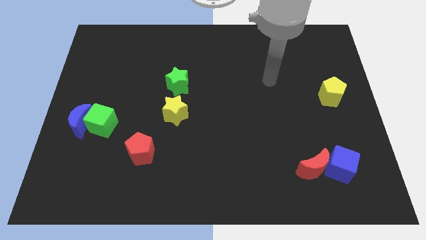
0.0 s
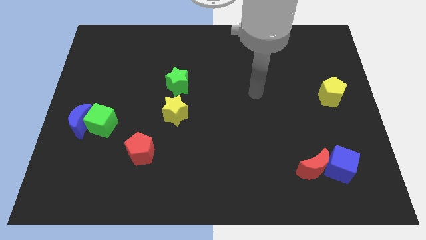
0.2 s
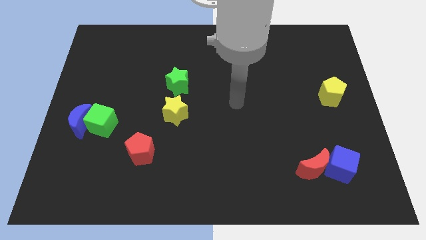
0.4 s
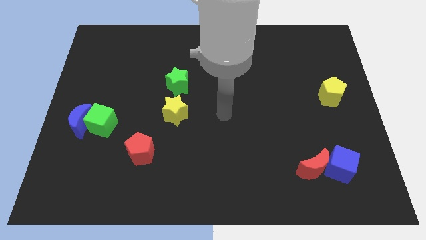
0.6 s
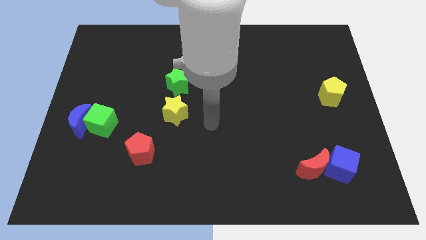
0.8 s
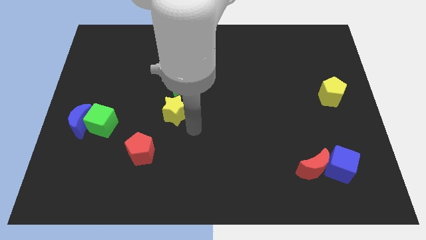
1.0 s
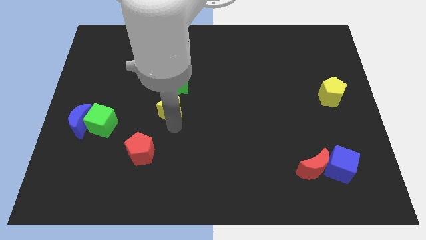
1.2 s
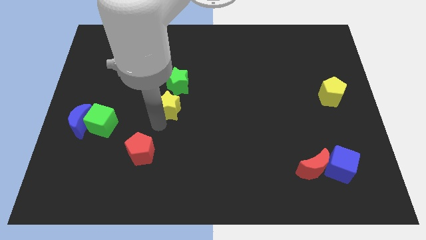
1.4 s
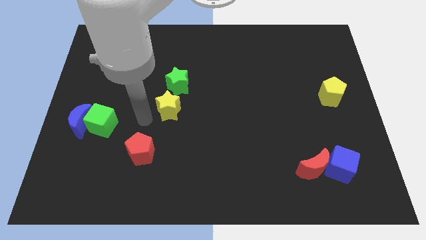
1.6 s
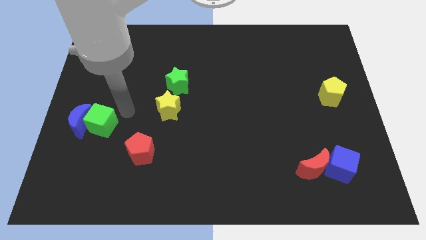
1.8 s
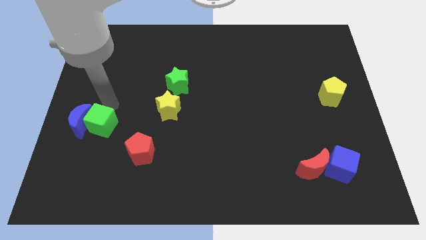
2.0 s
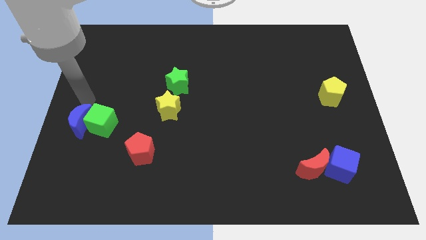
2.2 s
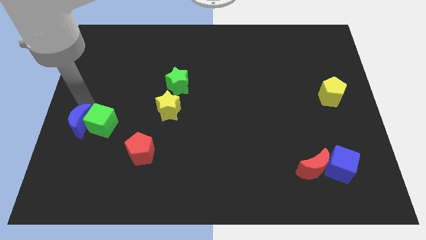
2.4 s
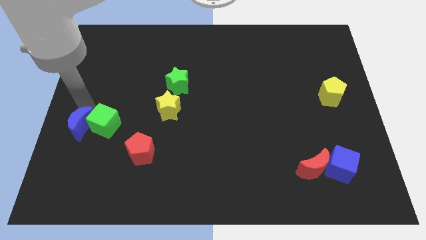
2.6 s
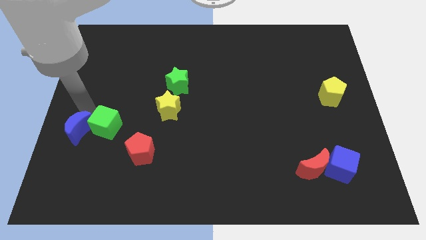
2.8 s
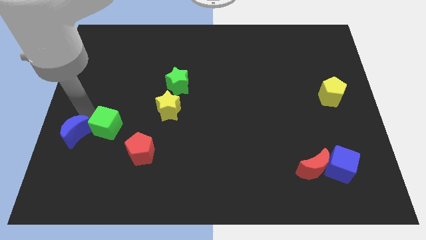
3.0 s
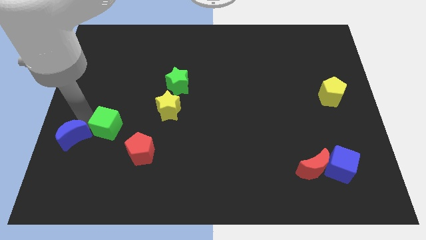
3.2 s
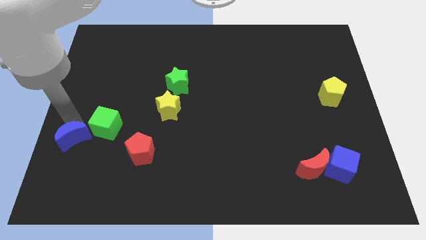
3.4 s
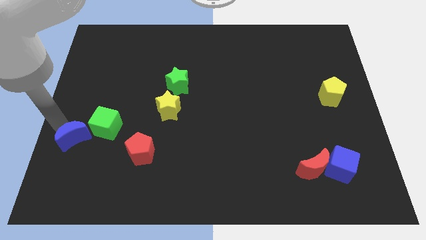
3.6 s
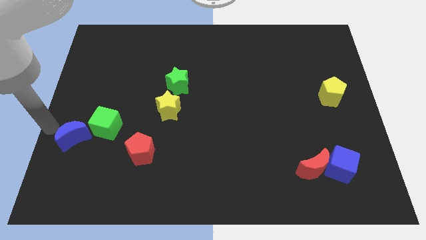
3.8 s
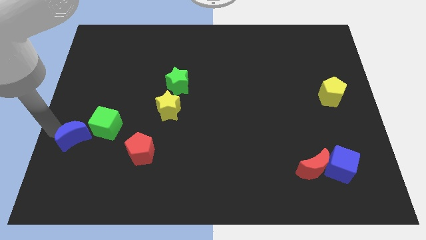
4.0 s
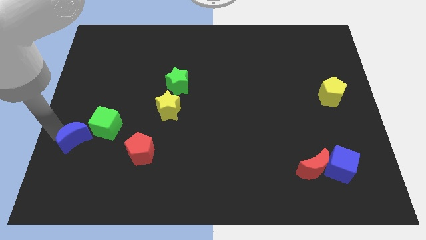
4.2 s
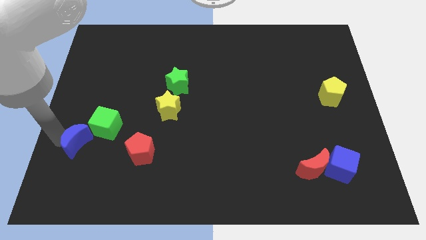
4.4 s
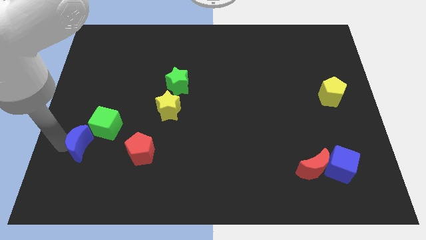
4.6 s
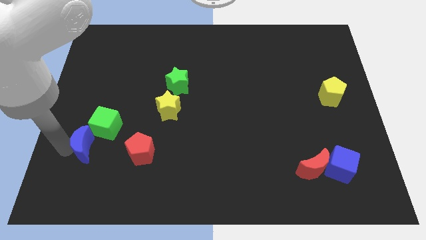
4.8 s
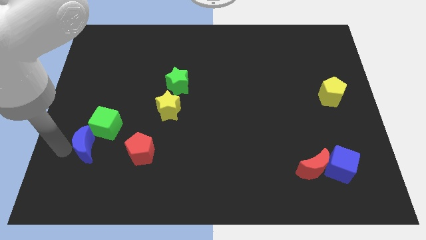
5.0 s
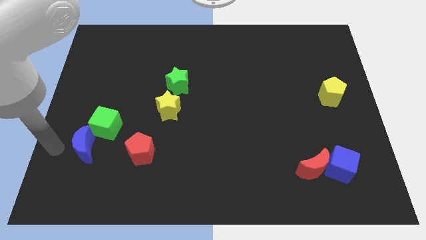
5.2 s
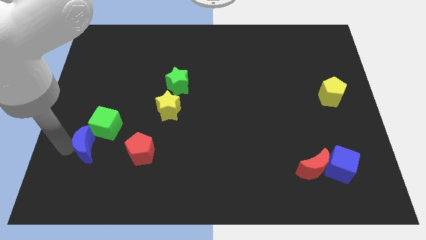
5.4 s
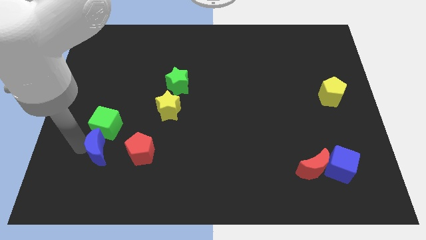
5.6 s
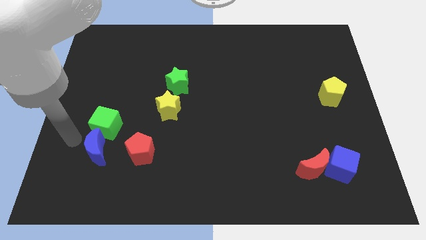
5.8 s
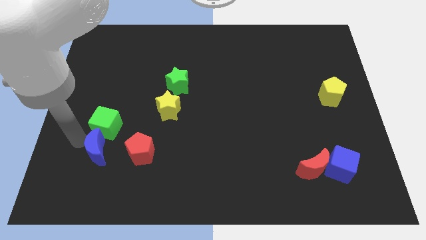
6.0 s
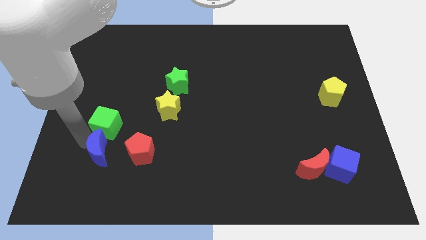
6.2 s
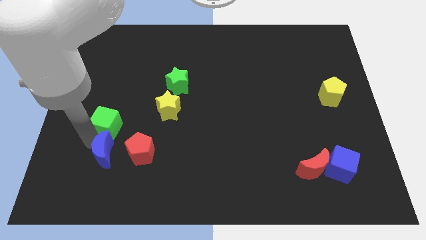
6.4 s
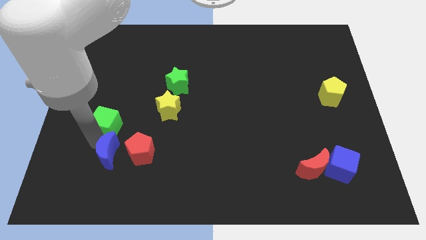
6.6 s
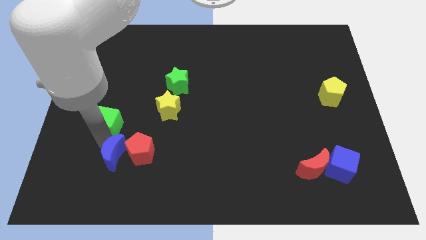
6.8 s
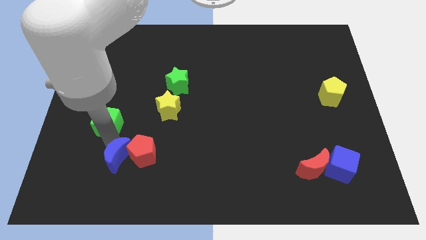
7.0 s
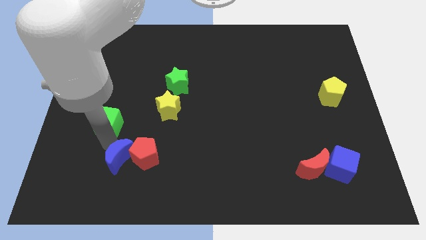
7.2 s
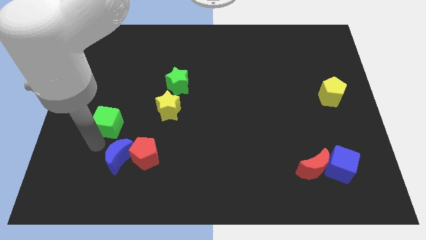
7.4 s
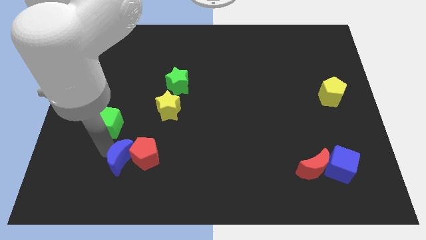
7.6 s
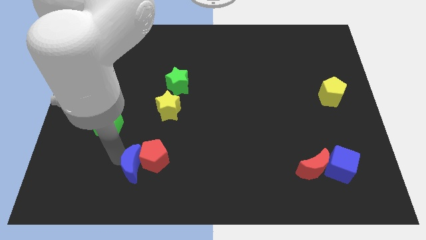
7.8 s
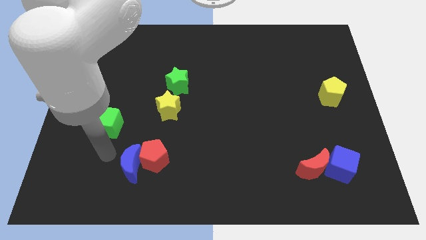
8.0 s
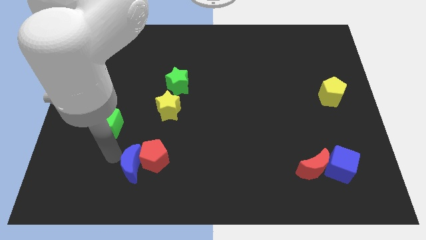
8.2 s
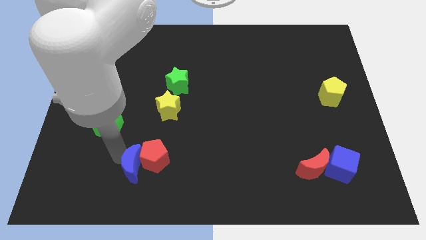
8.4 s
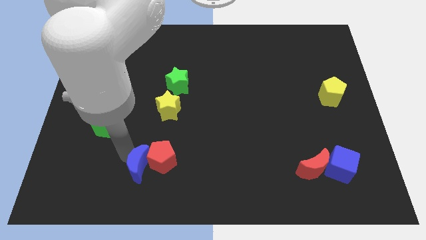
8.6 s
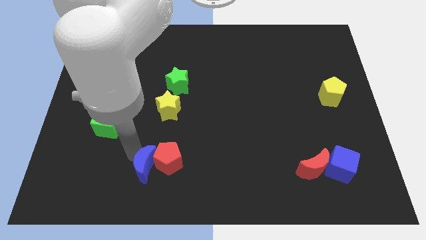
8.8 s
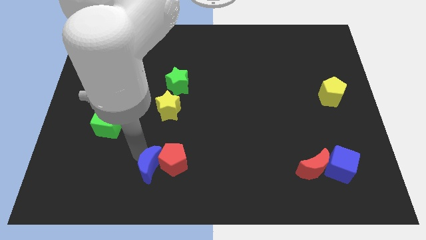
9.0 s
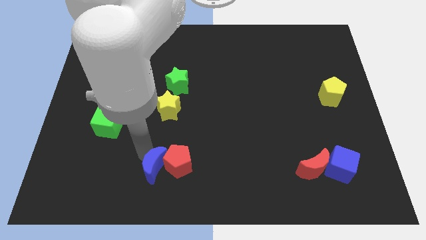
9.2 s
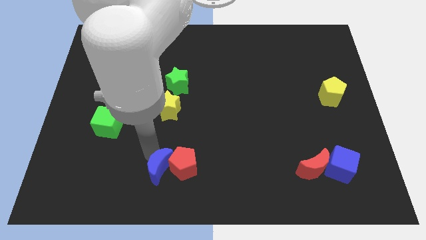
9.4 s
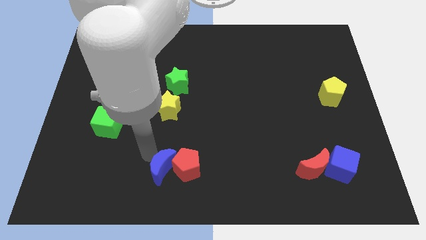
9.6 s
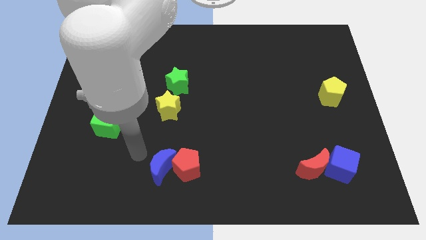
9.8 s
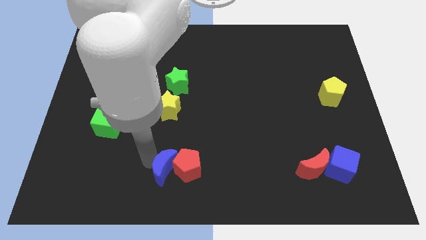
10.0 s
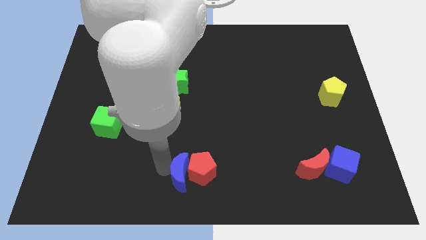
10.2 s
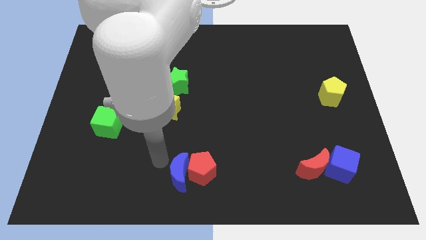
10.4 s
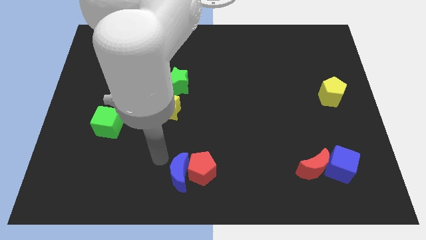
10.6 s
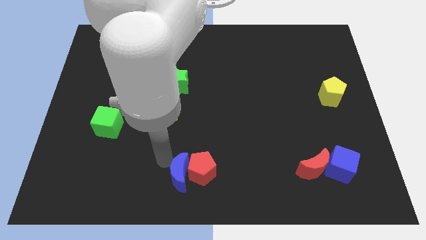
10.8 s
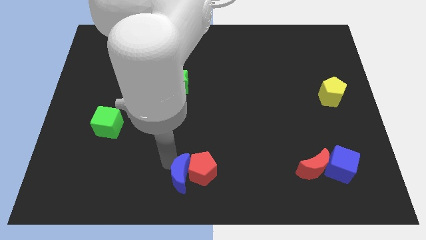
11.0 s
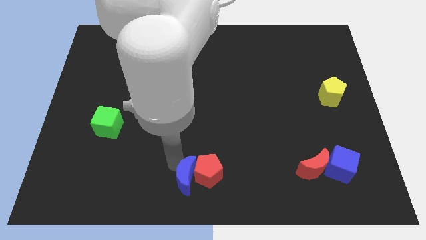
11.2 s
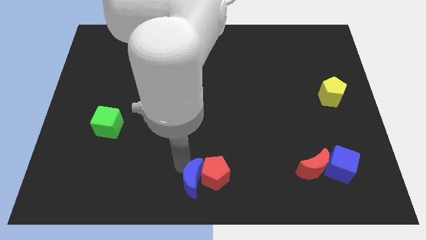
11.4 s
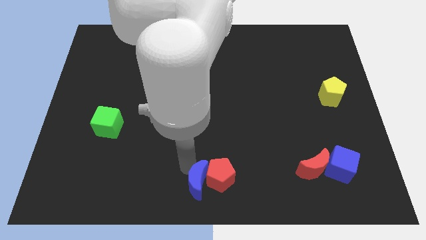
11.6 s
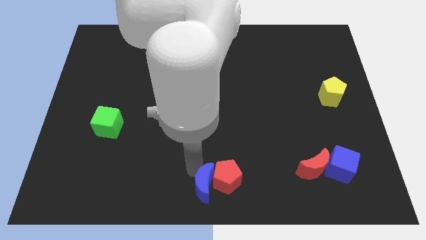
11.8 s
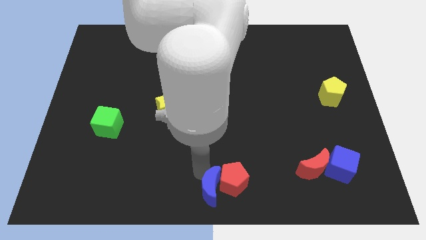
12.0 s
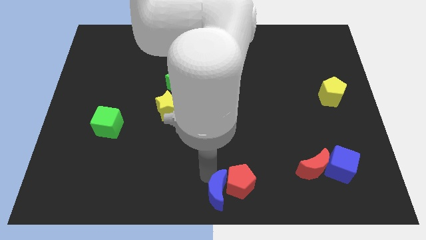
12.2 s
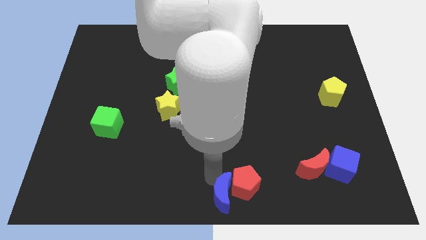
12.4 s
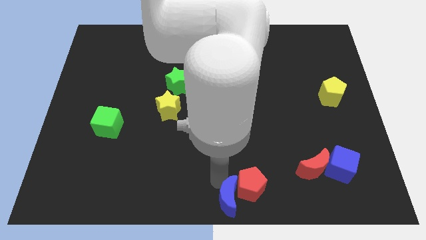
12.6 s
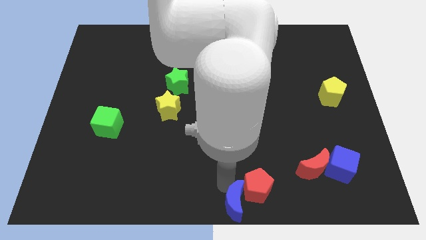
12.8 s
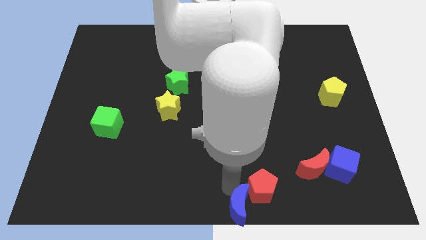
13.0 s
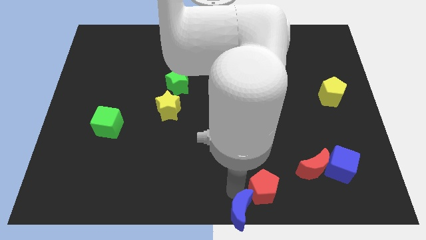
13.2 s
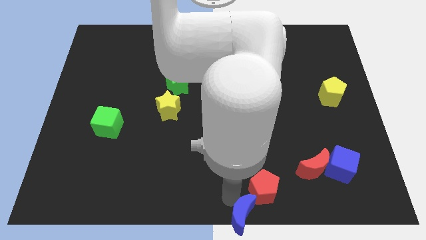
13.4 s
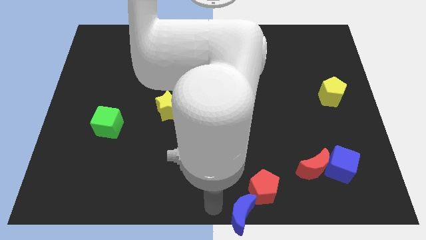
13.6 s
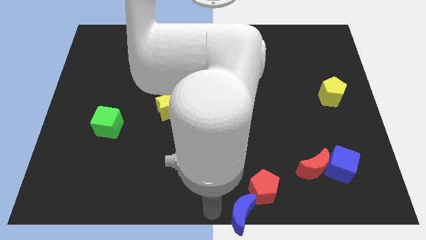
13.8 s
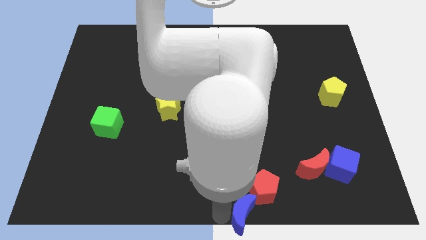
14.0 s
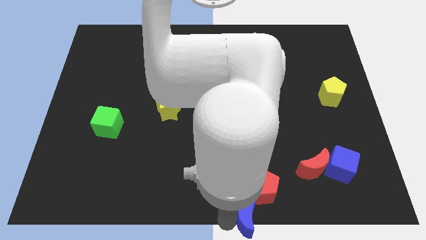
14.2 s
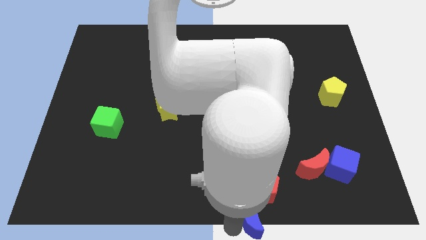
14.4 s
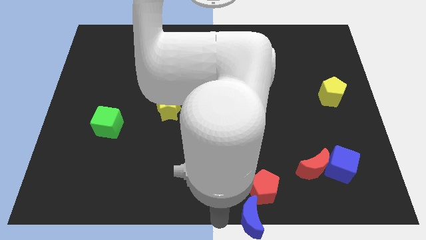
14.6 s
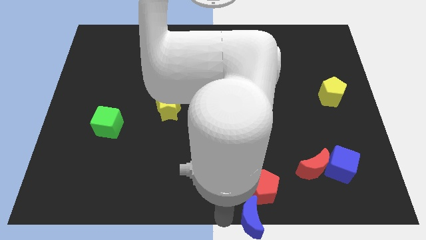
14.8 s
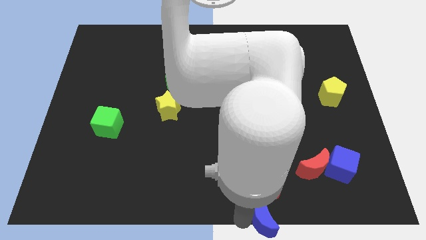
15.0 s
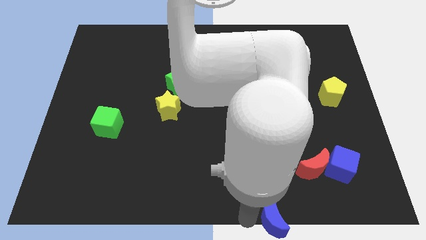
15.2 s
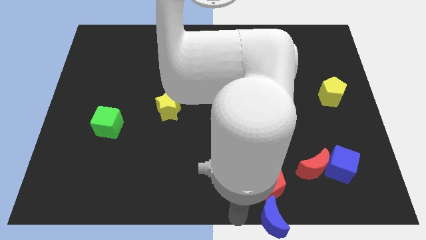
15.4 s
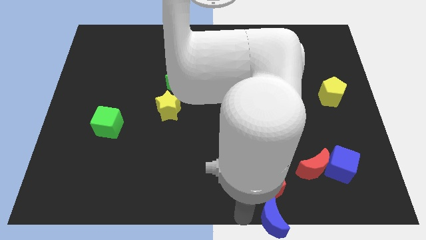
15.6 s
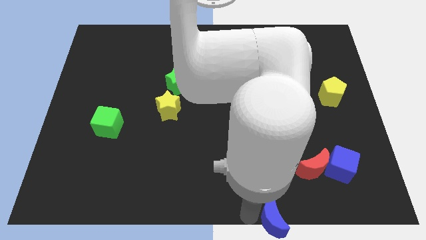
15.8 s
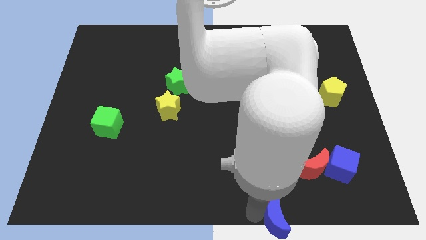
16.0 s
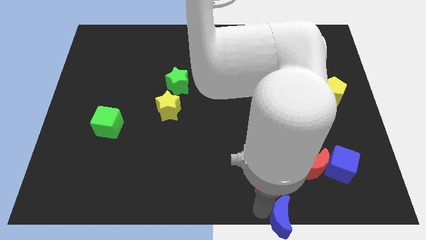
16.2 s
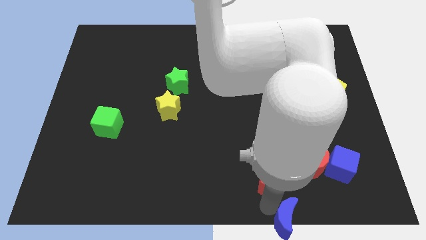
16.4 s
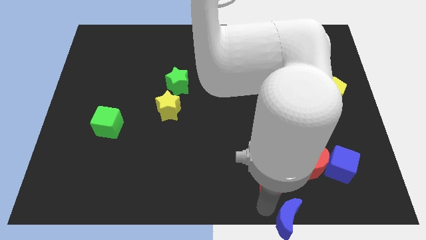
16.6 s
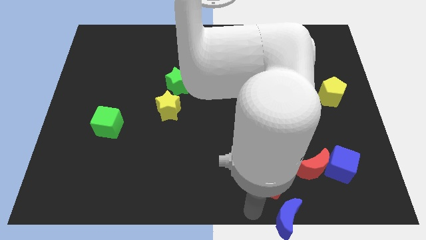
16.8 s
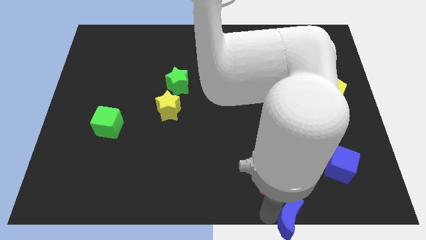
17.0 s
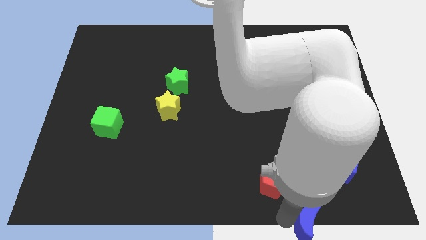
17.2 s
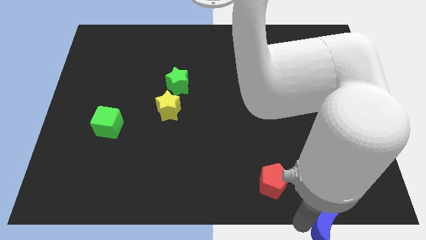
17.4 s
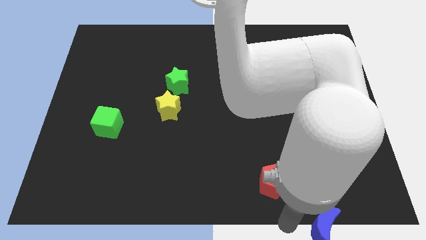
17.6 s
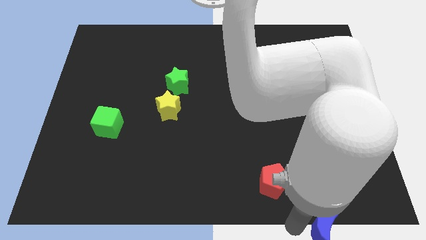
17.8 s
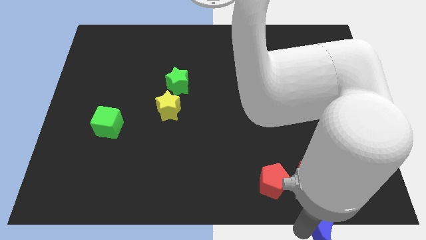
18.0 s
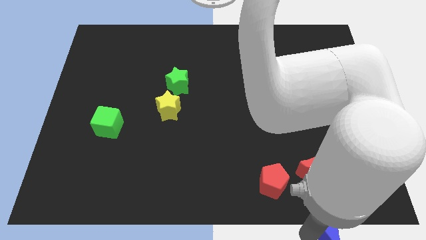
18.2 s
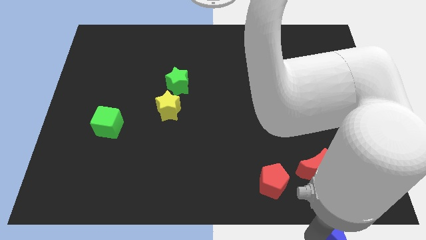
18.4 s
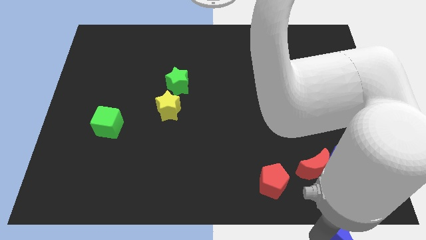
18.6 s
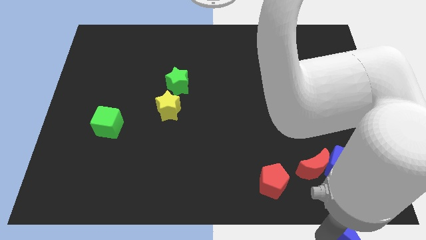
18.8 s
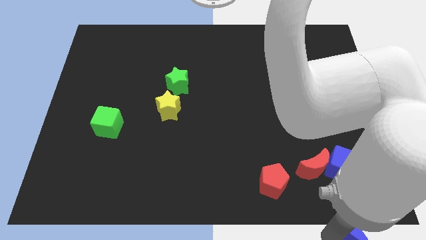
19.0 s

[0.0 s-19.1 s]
push the blue moon to the lower right corner
